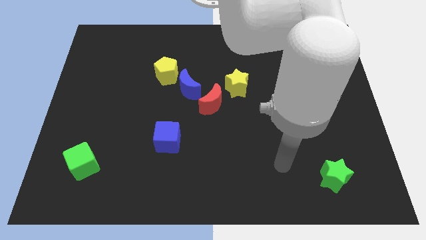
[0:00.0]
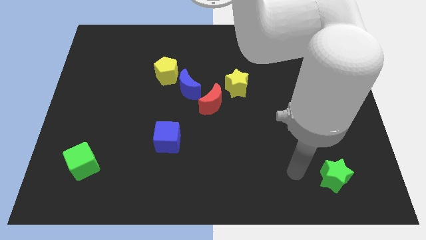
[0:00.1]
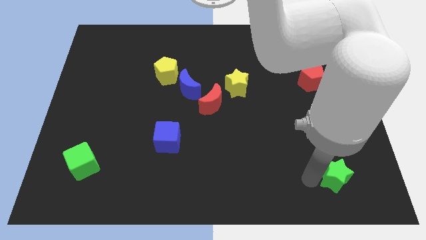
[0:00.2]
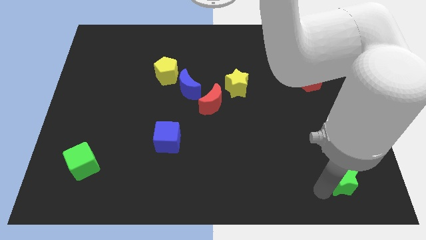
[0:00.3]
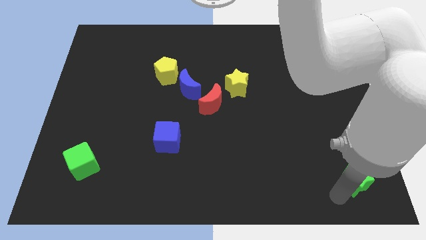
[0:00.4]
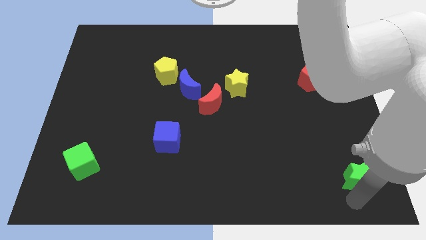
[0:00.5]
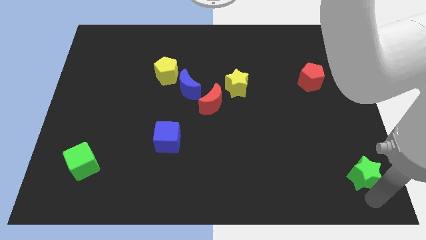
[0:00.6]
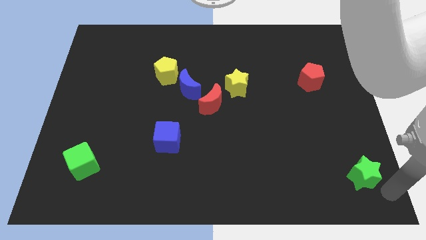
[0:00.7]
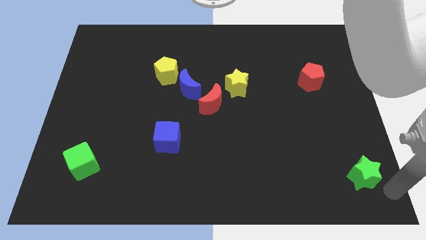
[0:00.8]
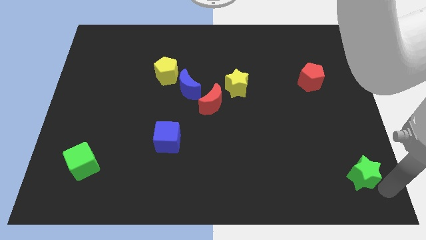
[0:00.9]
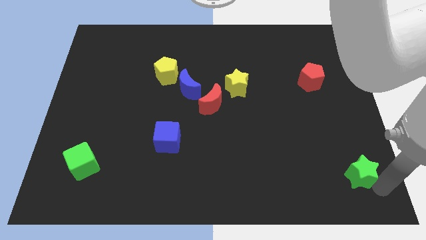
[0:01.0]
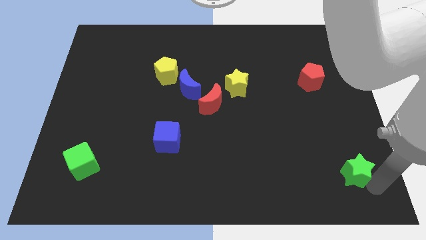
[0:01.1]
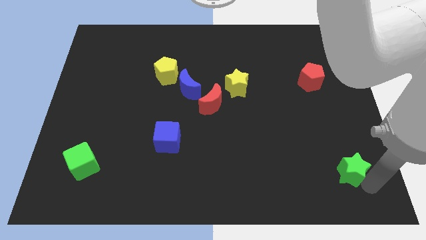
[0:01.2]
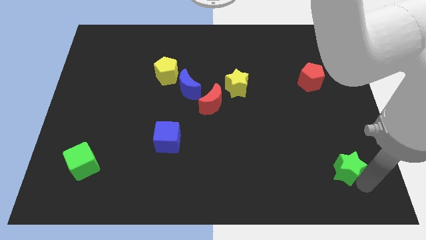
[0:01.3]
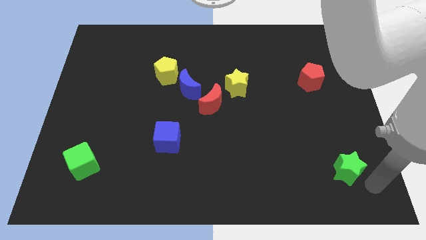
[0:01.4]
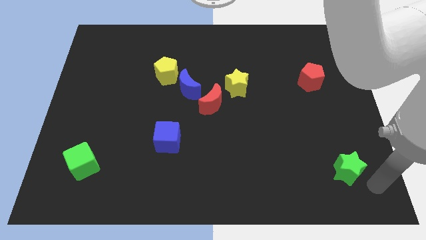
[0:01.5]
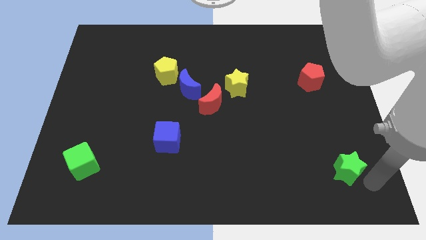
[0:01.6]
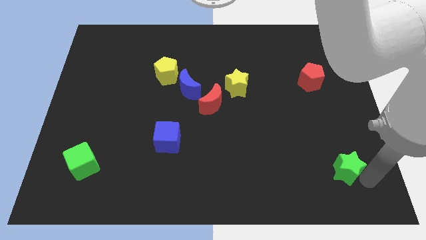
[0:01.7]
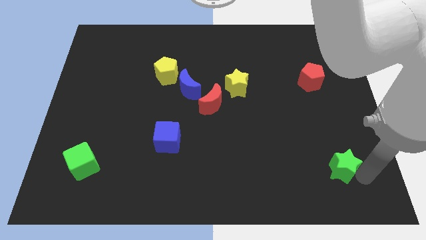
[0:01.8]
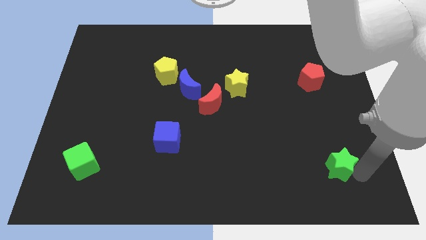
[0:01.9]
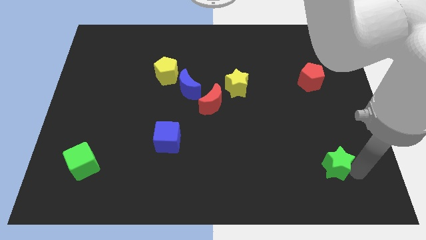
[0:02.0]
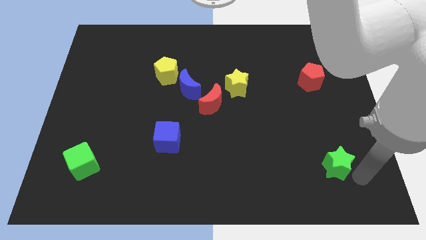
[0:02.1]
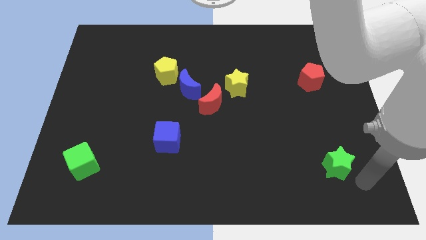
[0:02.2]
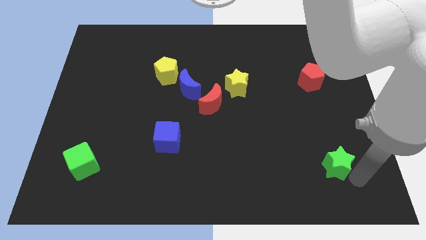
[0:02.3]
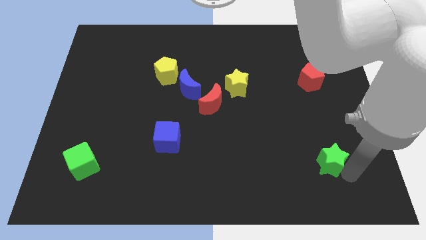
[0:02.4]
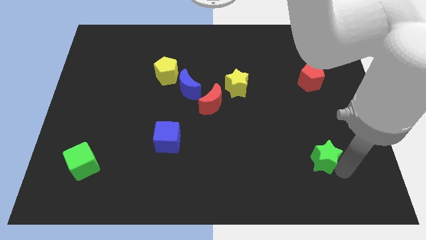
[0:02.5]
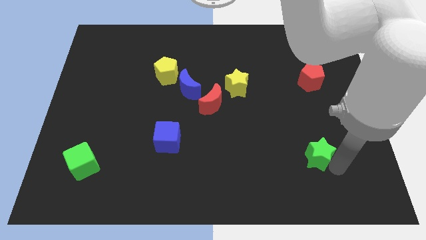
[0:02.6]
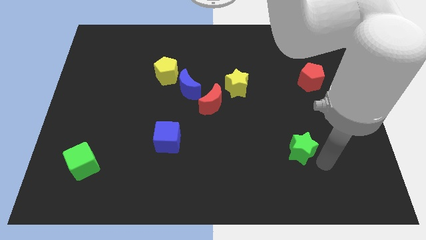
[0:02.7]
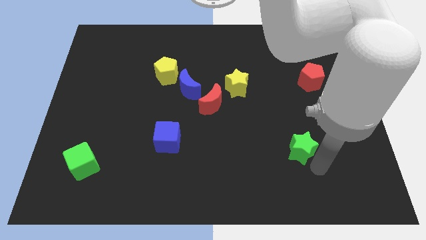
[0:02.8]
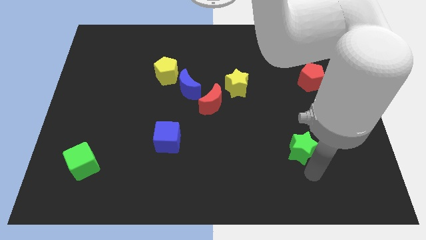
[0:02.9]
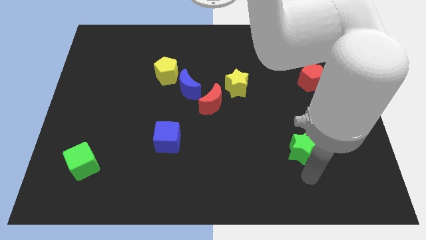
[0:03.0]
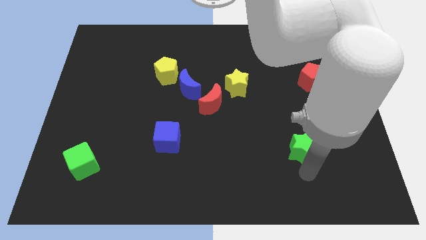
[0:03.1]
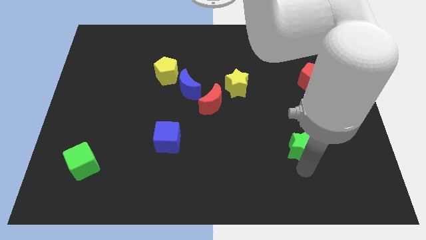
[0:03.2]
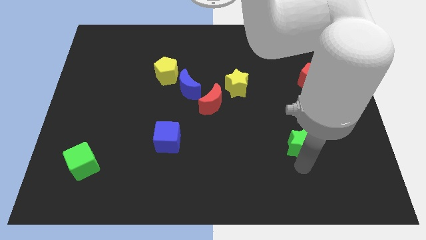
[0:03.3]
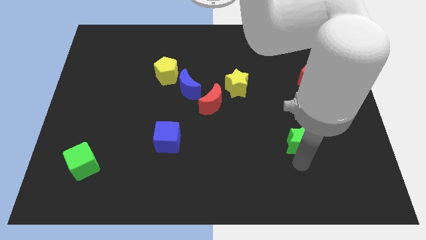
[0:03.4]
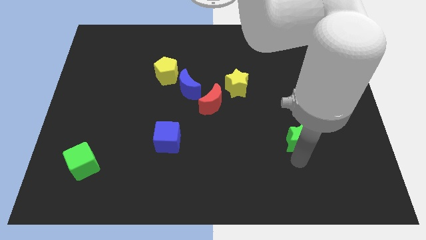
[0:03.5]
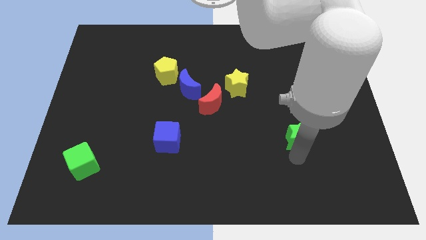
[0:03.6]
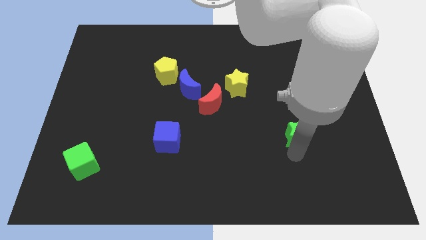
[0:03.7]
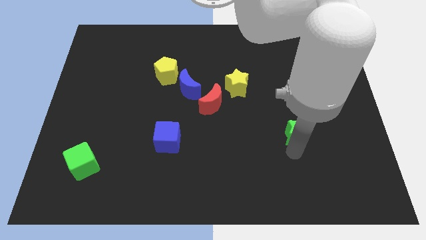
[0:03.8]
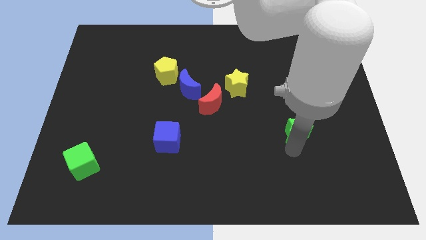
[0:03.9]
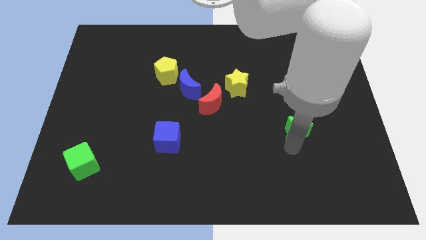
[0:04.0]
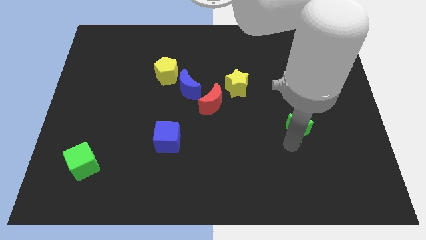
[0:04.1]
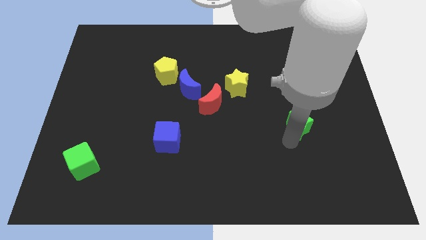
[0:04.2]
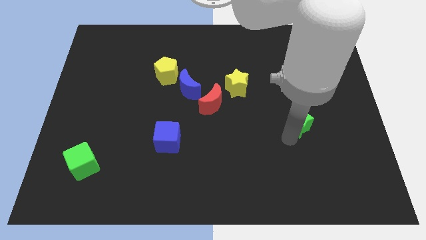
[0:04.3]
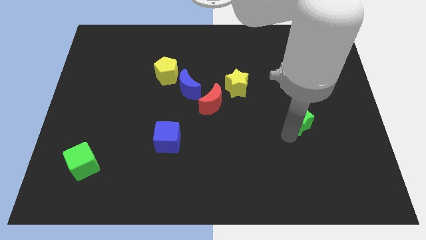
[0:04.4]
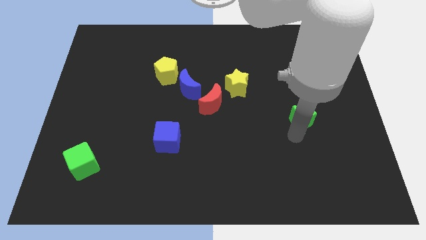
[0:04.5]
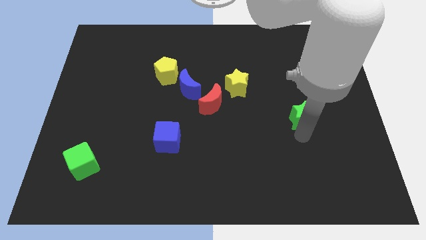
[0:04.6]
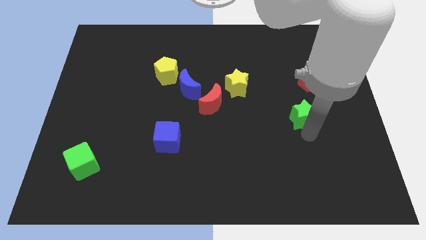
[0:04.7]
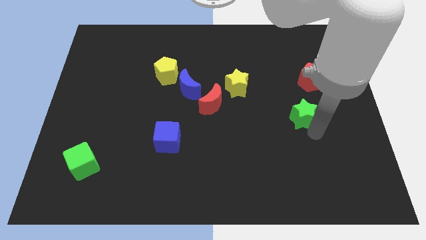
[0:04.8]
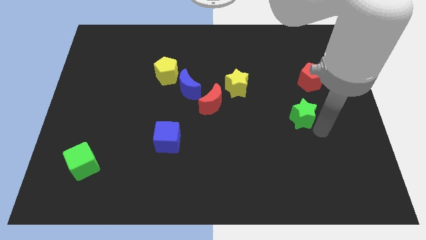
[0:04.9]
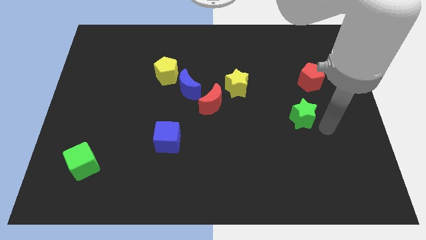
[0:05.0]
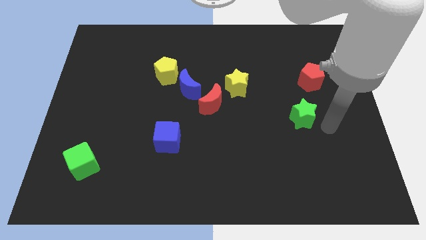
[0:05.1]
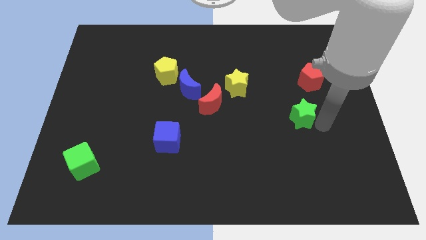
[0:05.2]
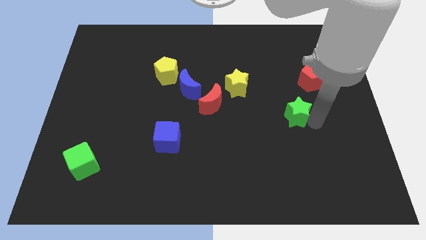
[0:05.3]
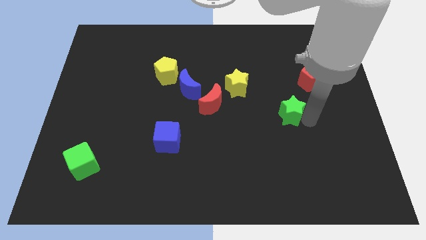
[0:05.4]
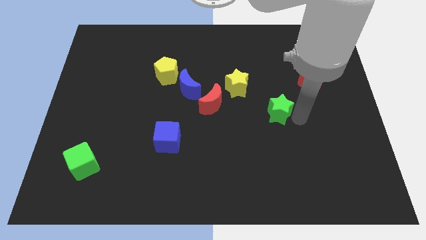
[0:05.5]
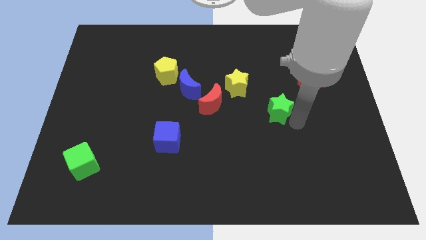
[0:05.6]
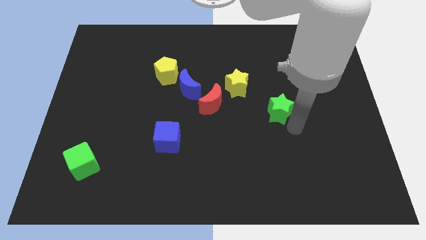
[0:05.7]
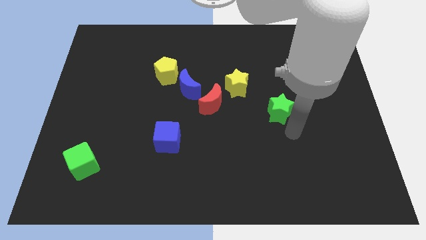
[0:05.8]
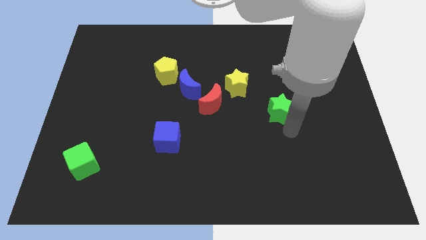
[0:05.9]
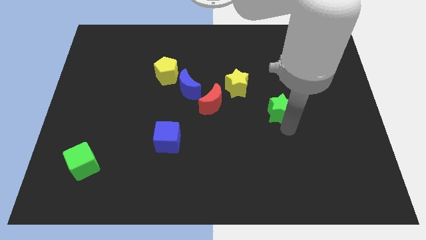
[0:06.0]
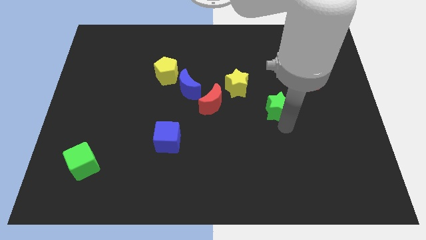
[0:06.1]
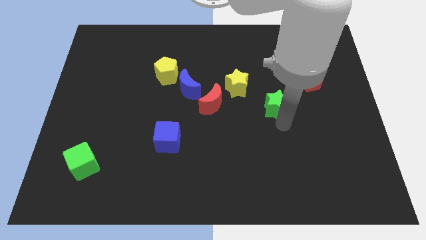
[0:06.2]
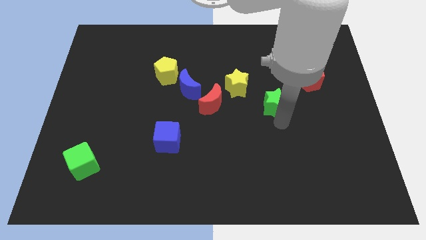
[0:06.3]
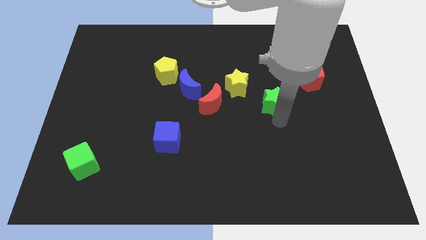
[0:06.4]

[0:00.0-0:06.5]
push the green star up and then left

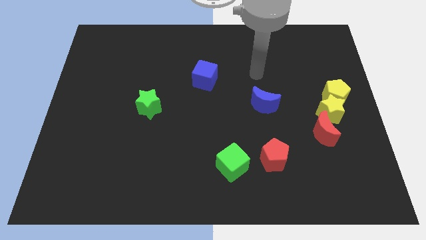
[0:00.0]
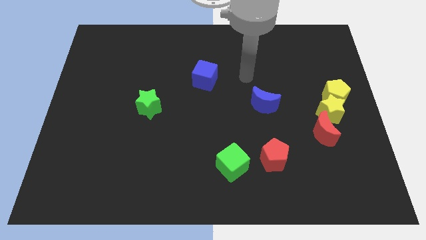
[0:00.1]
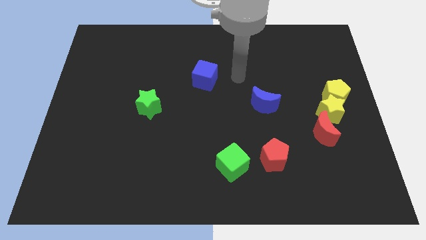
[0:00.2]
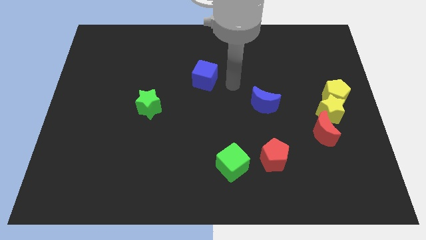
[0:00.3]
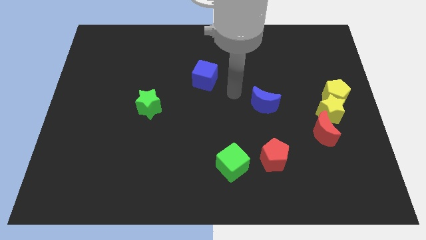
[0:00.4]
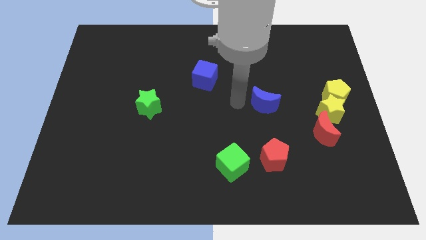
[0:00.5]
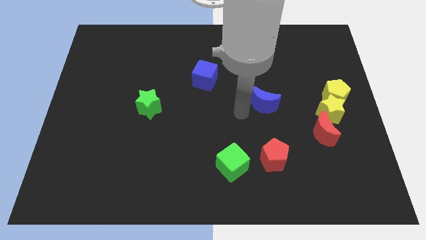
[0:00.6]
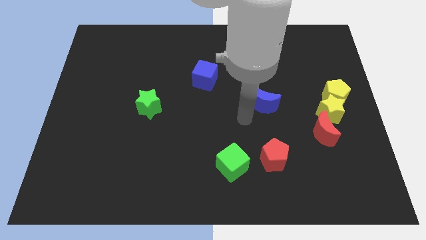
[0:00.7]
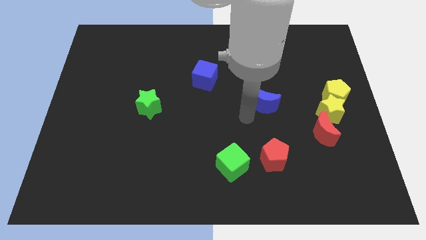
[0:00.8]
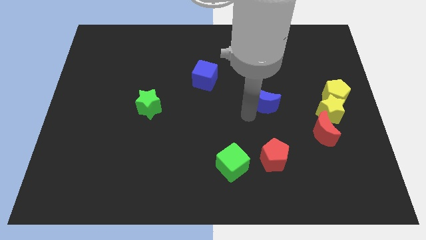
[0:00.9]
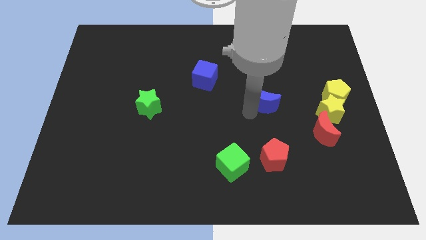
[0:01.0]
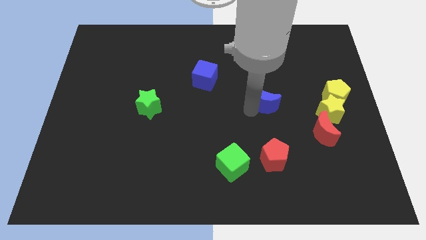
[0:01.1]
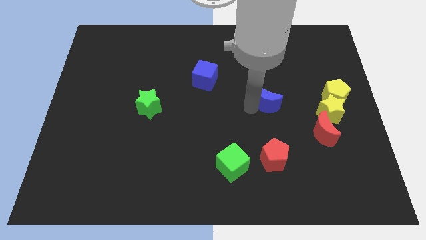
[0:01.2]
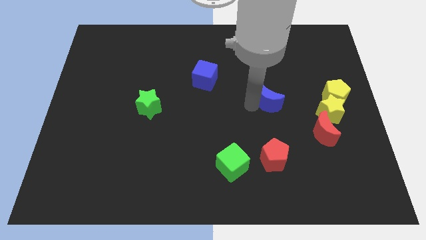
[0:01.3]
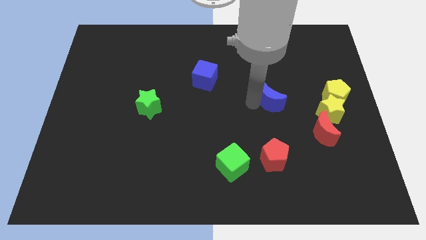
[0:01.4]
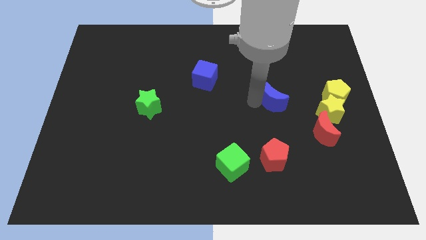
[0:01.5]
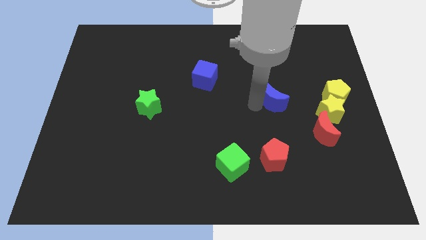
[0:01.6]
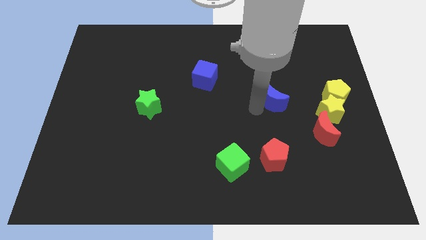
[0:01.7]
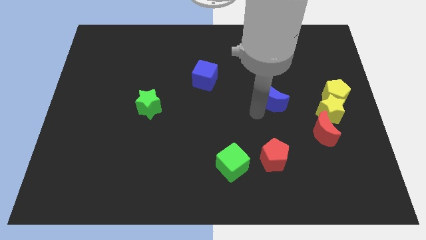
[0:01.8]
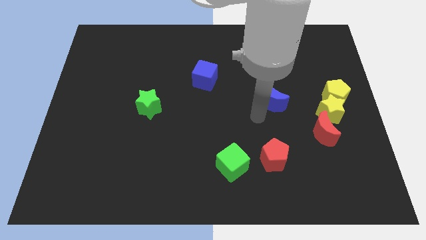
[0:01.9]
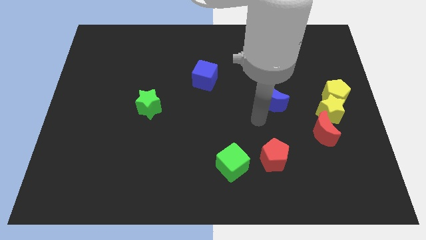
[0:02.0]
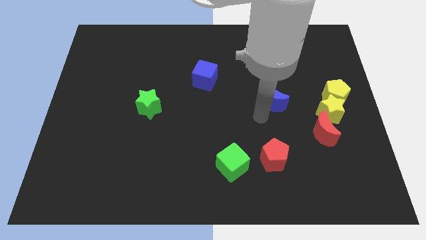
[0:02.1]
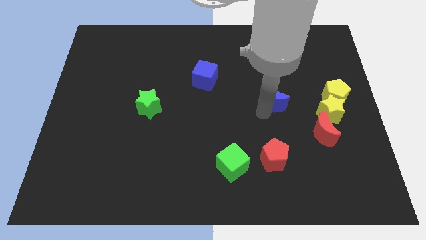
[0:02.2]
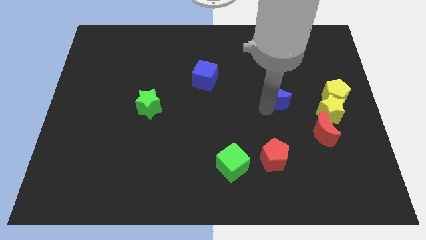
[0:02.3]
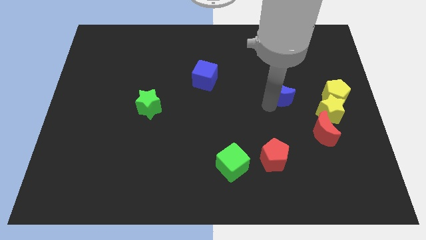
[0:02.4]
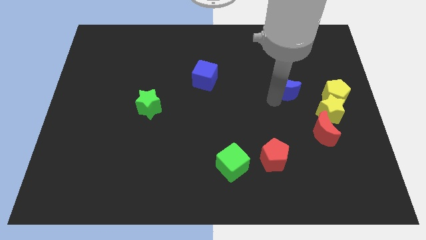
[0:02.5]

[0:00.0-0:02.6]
slightly push the blue moon up and then right
